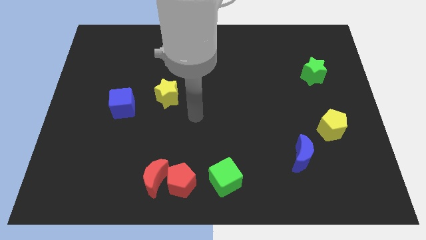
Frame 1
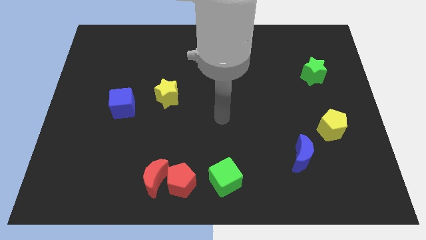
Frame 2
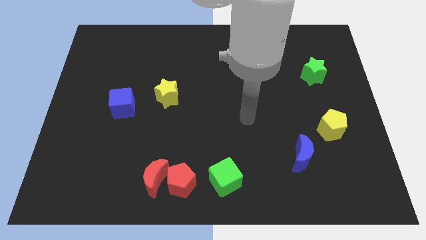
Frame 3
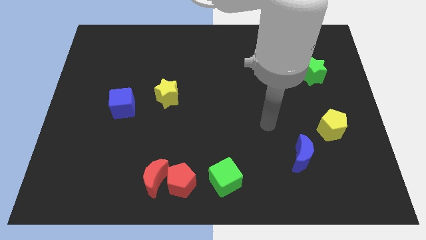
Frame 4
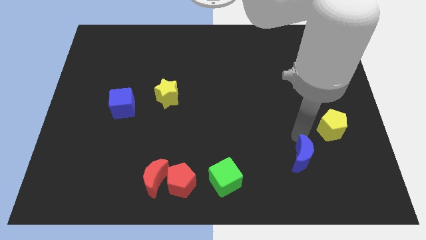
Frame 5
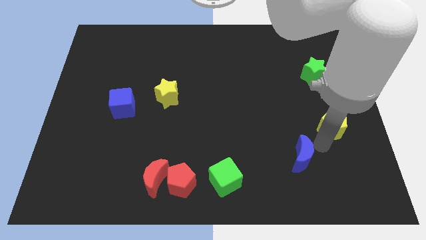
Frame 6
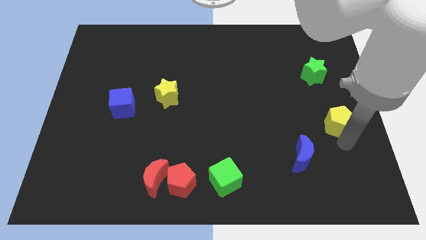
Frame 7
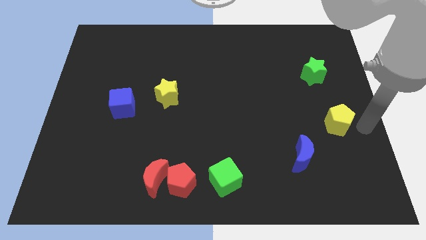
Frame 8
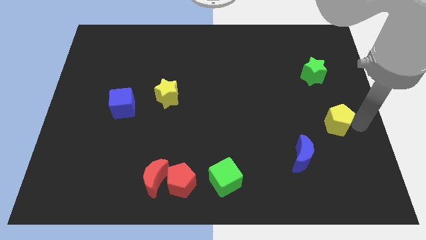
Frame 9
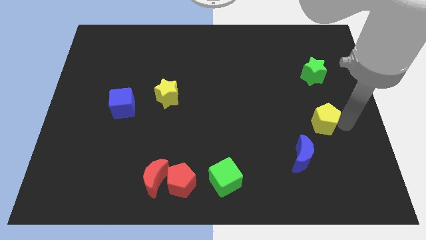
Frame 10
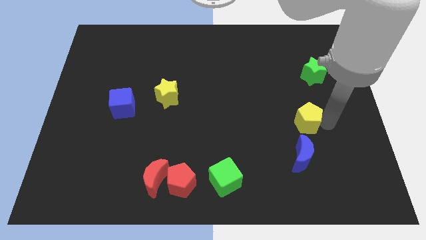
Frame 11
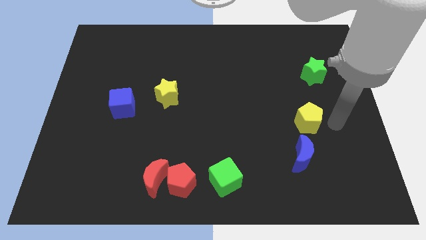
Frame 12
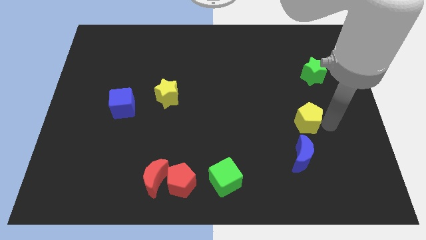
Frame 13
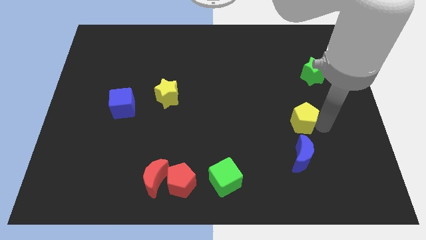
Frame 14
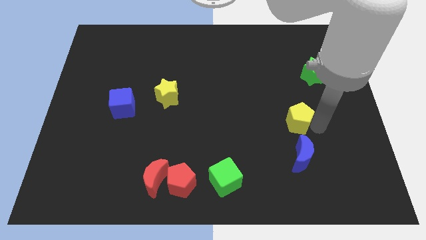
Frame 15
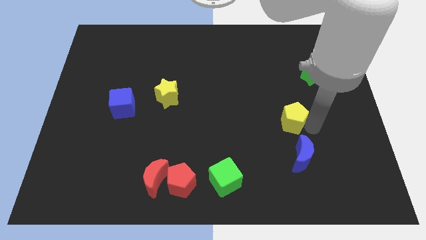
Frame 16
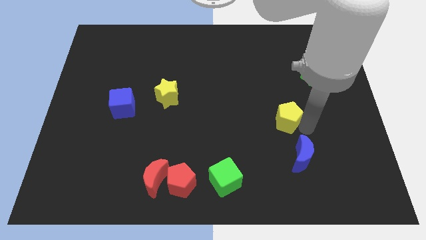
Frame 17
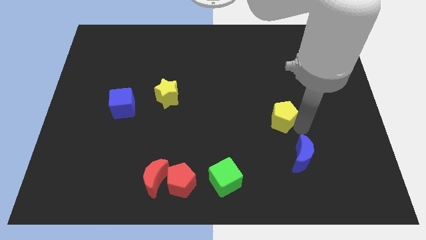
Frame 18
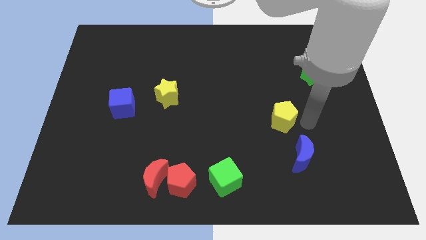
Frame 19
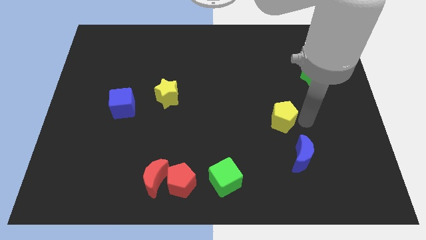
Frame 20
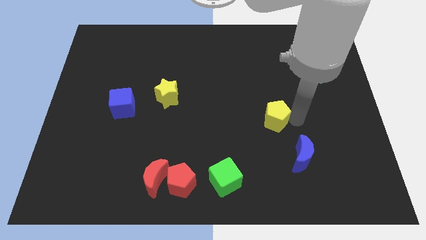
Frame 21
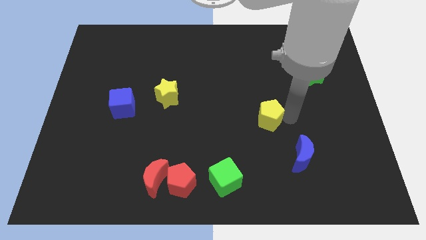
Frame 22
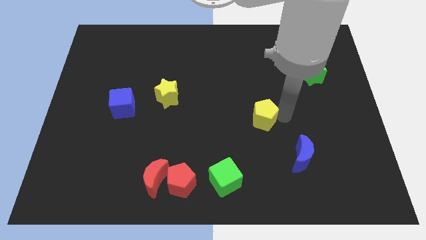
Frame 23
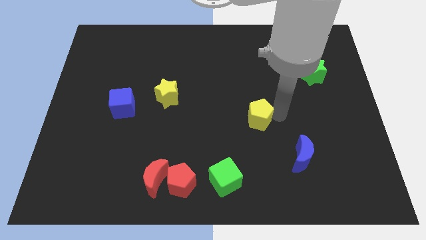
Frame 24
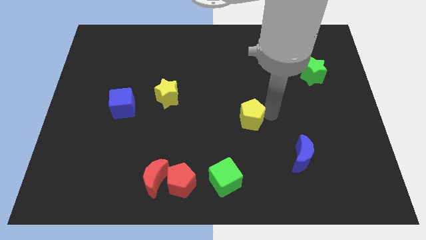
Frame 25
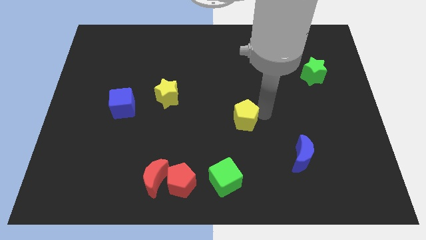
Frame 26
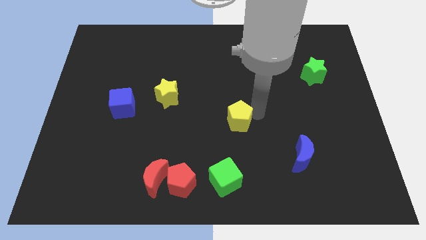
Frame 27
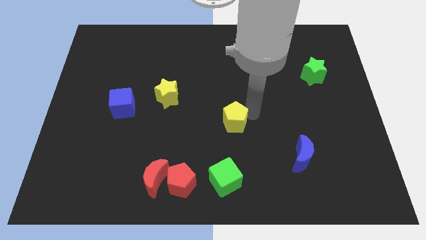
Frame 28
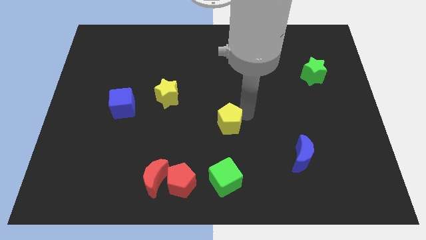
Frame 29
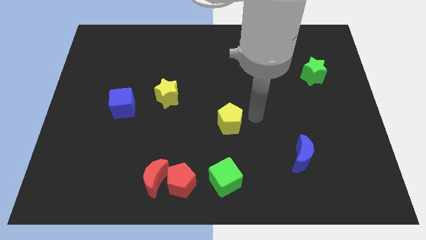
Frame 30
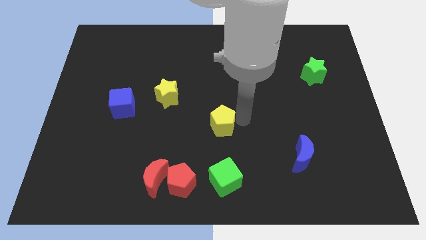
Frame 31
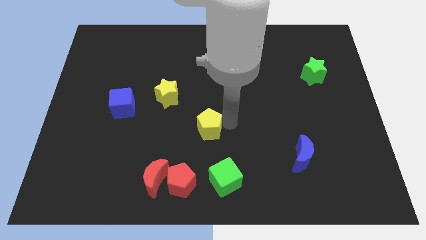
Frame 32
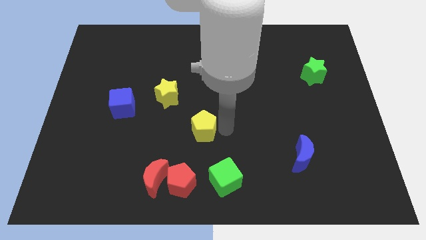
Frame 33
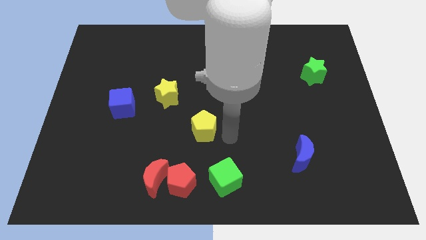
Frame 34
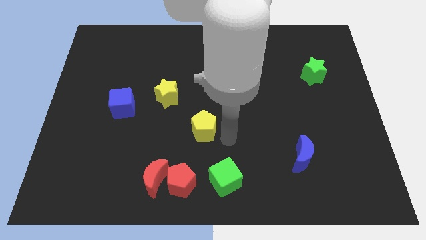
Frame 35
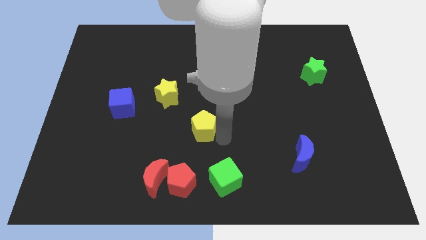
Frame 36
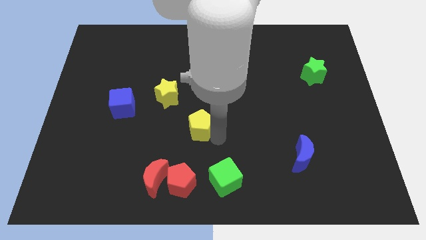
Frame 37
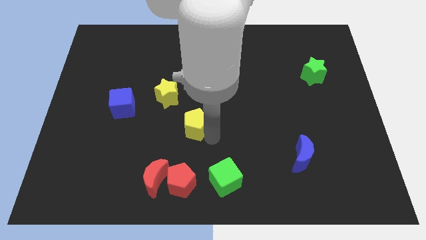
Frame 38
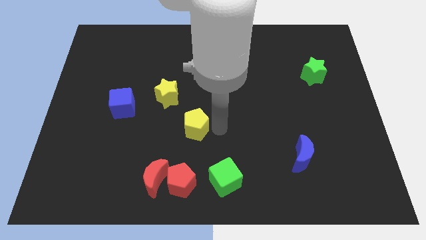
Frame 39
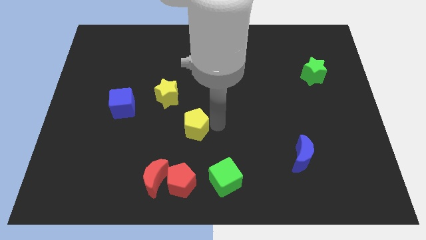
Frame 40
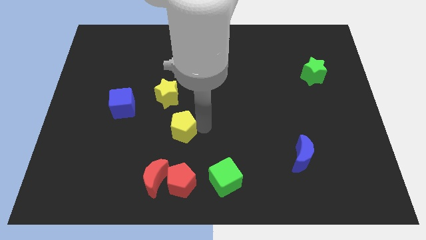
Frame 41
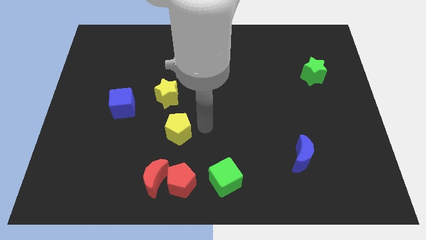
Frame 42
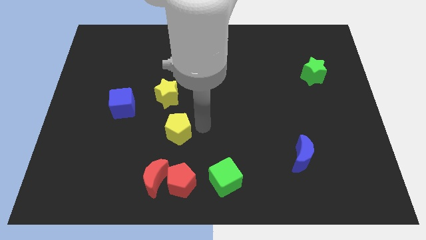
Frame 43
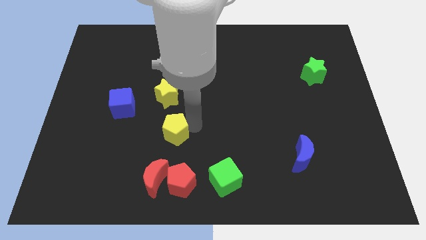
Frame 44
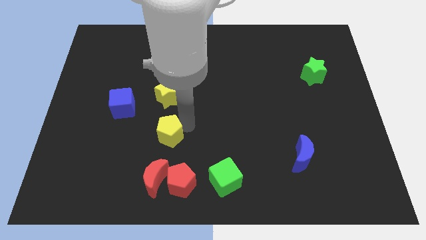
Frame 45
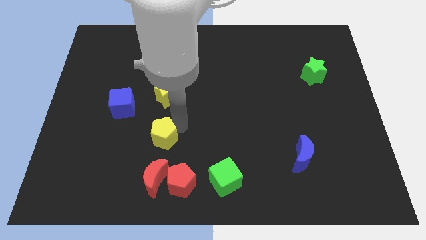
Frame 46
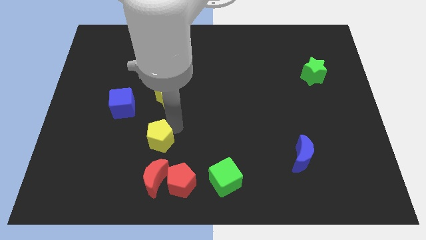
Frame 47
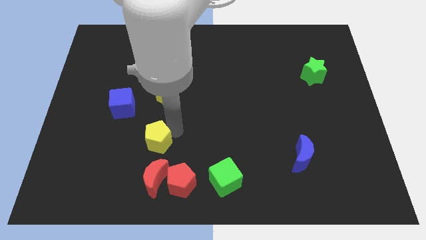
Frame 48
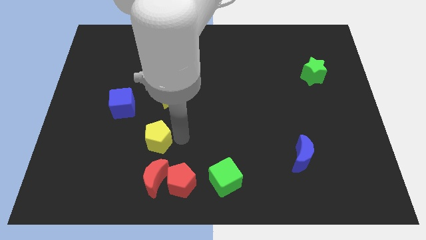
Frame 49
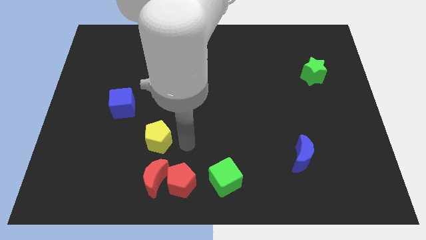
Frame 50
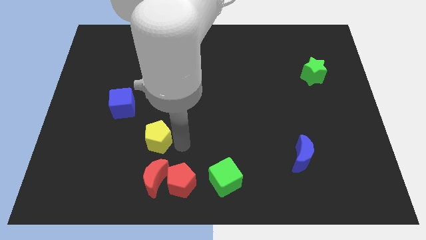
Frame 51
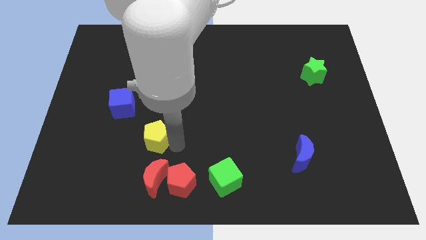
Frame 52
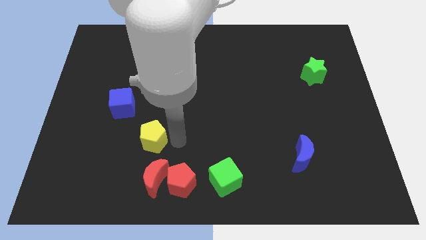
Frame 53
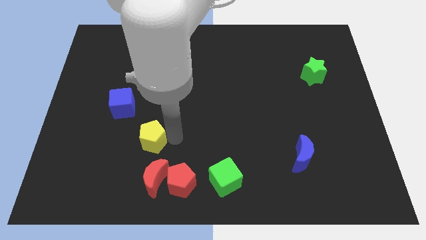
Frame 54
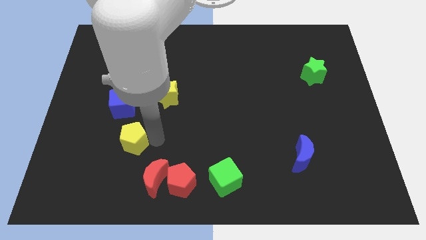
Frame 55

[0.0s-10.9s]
push the yellow pentagon below the blue cube
